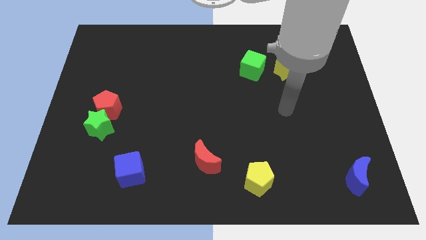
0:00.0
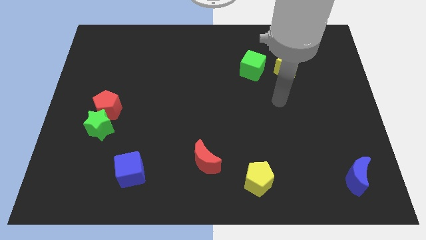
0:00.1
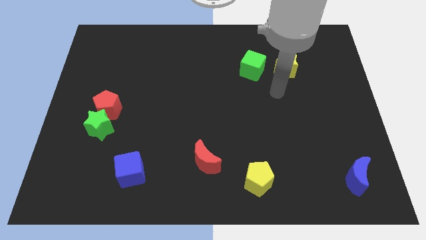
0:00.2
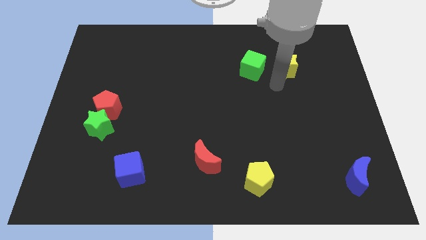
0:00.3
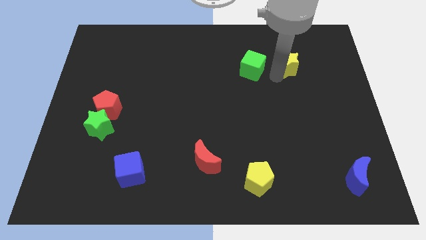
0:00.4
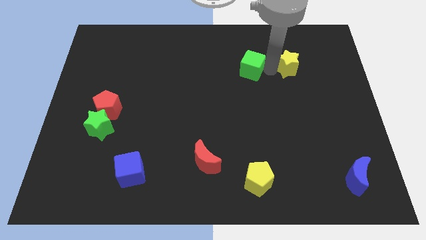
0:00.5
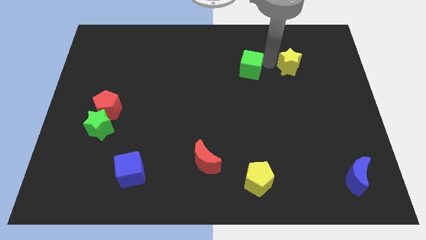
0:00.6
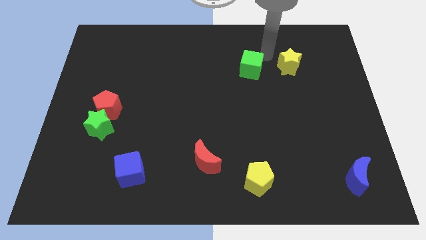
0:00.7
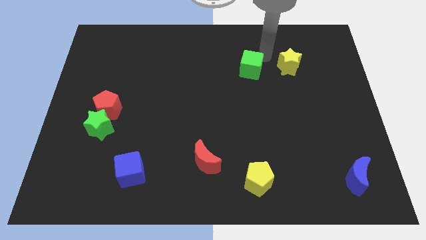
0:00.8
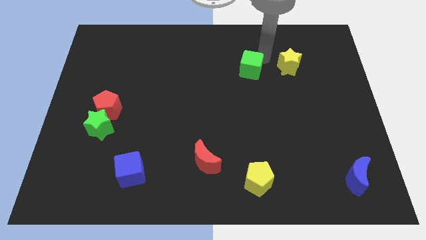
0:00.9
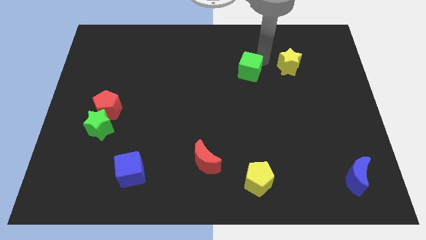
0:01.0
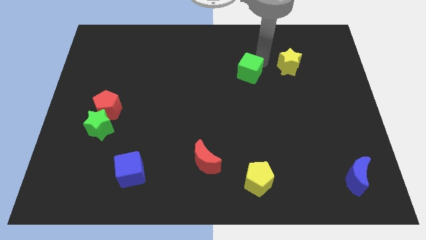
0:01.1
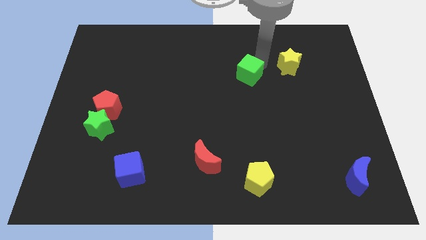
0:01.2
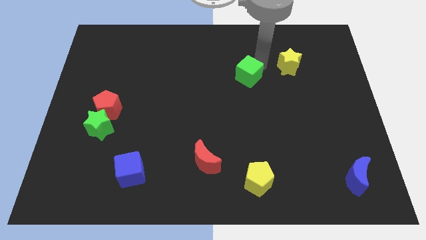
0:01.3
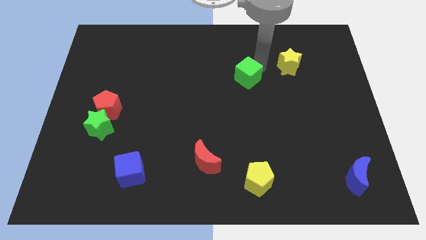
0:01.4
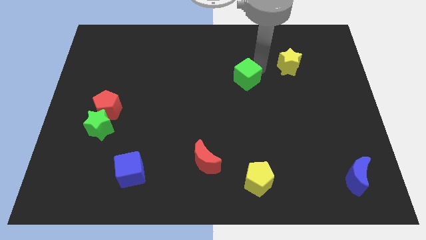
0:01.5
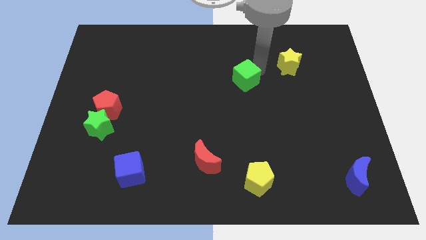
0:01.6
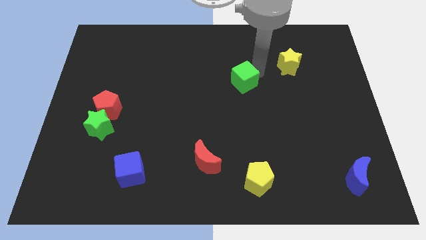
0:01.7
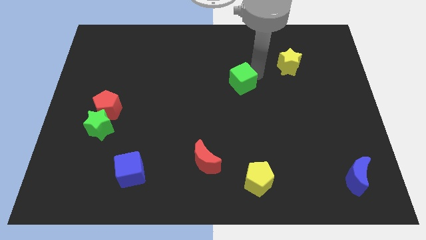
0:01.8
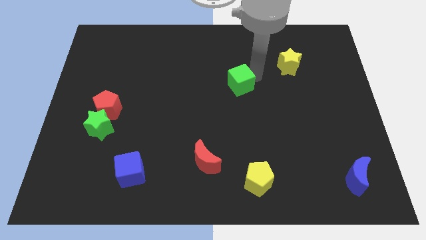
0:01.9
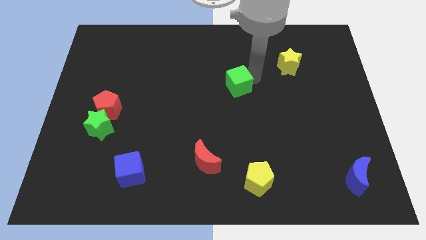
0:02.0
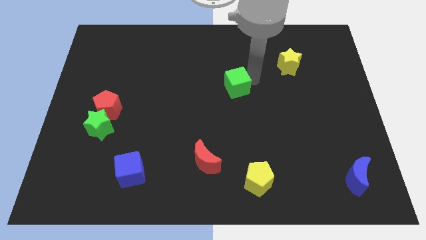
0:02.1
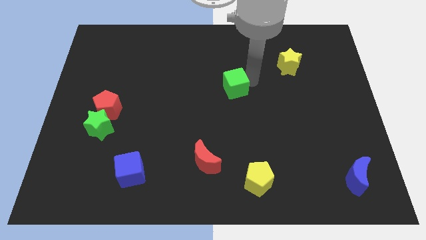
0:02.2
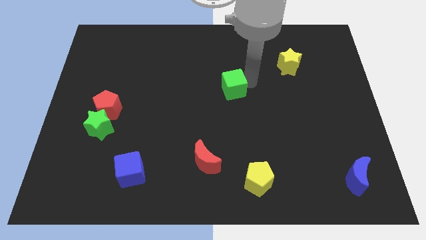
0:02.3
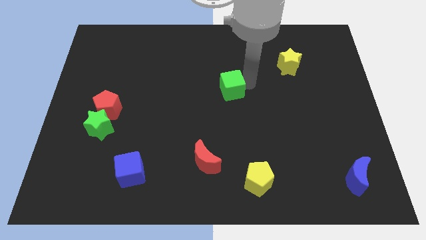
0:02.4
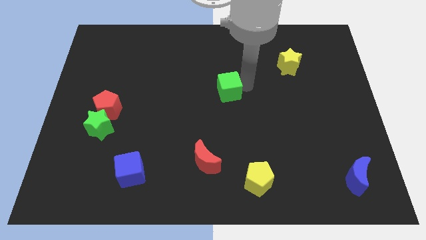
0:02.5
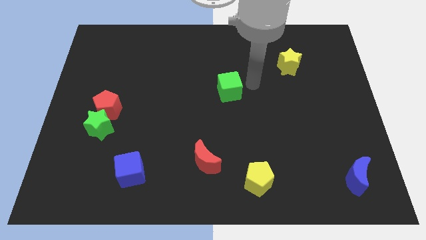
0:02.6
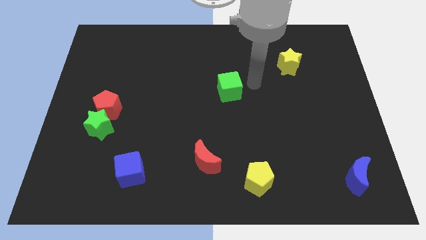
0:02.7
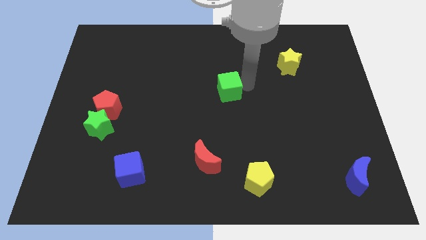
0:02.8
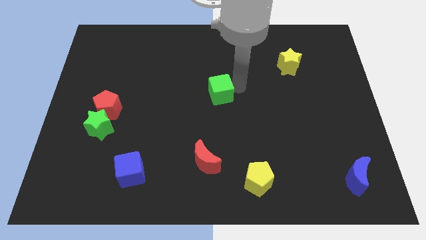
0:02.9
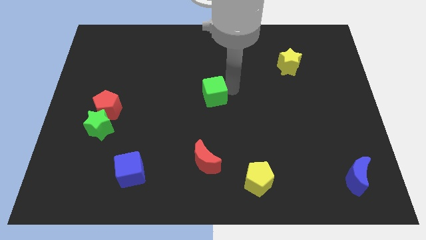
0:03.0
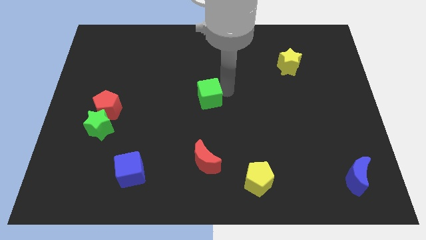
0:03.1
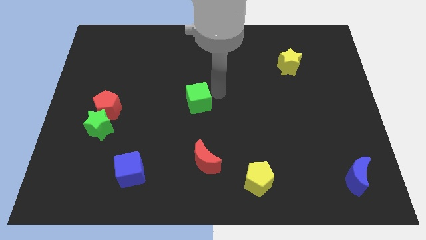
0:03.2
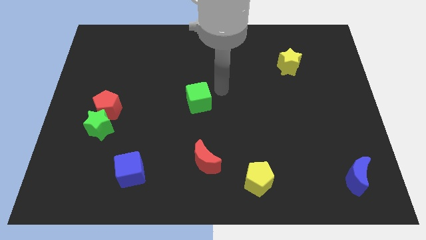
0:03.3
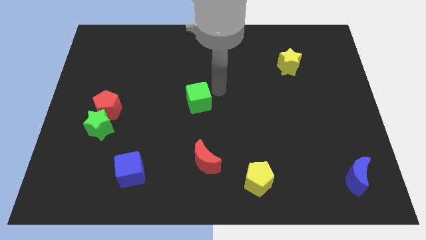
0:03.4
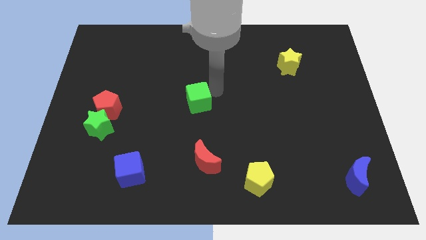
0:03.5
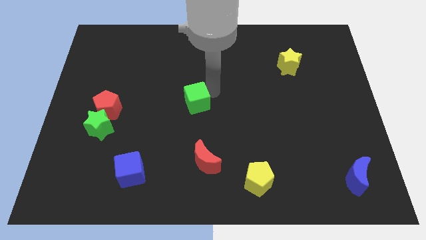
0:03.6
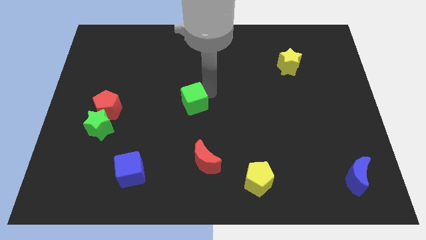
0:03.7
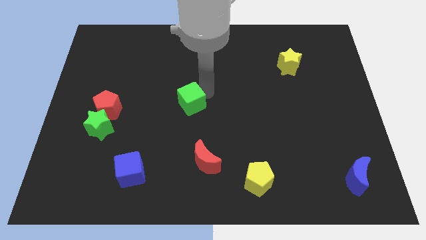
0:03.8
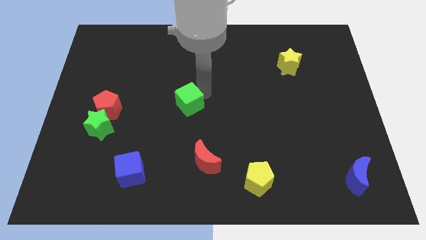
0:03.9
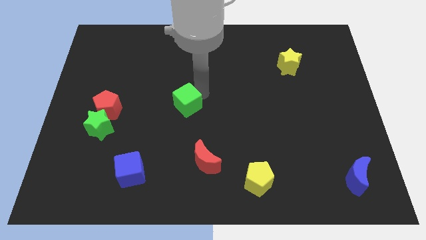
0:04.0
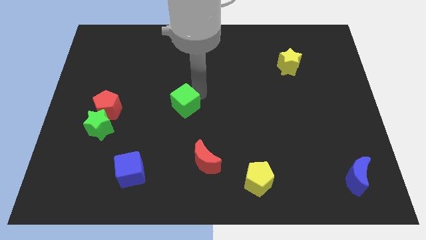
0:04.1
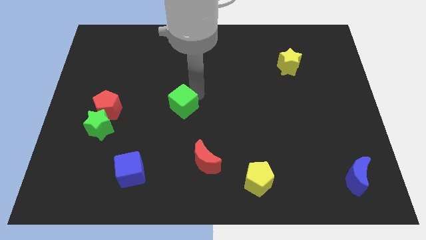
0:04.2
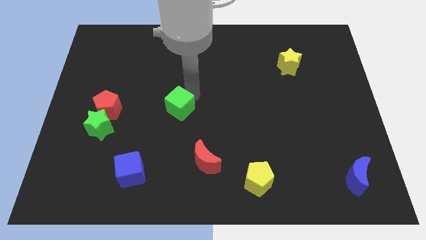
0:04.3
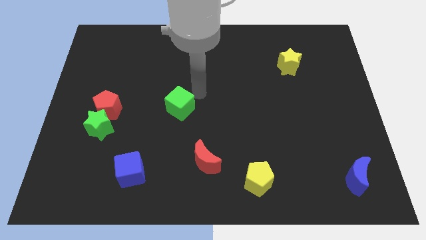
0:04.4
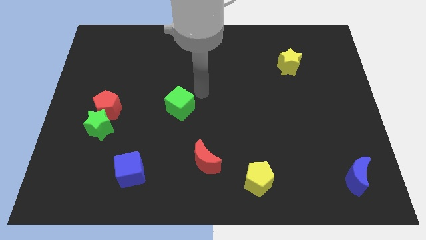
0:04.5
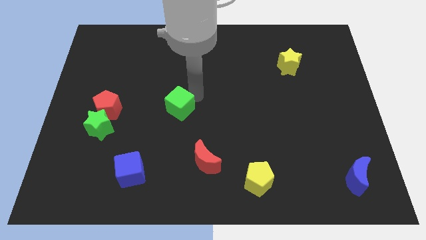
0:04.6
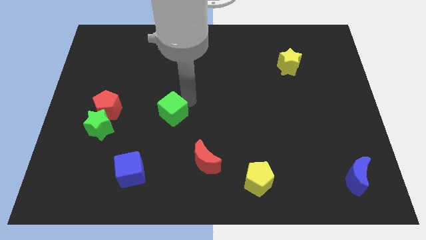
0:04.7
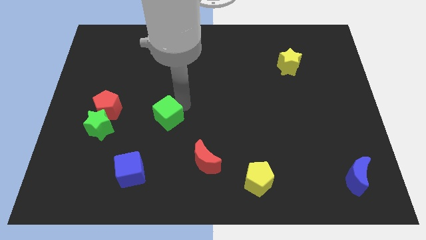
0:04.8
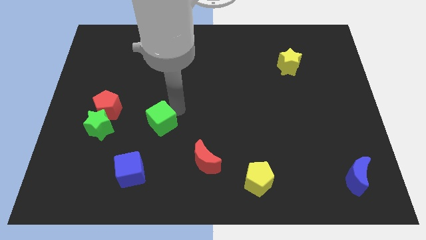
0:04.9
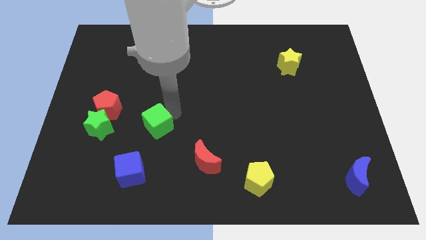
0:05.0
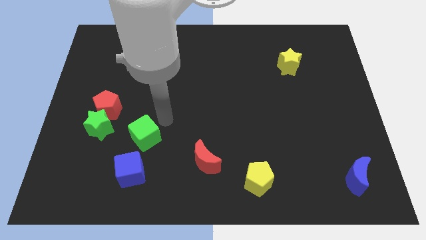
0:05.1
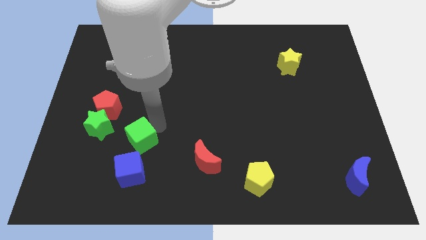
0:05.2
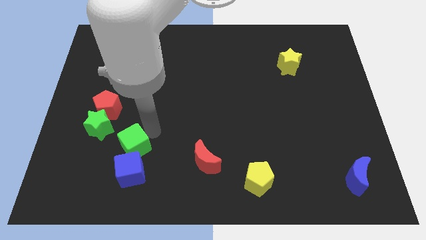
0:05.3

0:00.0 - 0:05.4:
push the green cube diagonally up and to the left of the blue cube

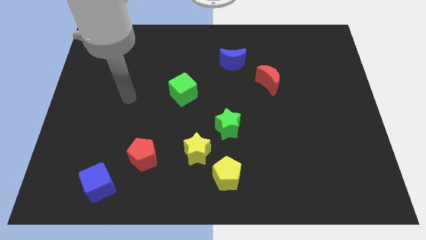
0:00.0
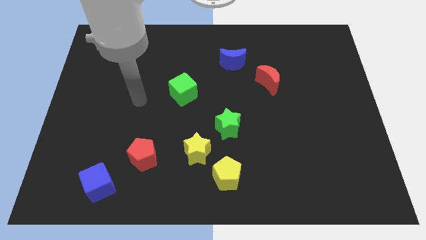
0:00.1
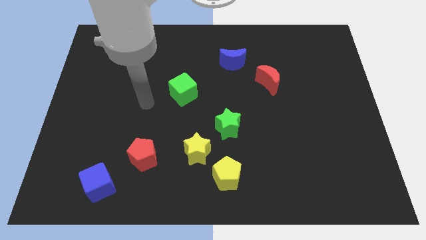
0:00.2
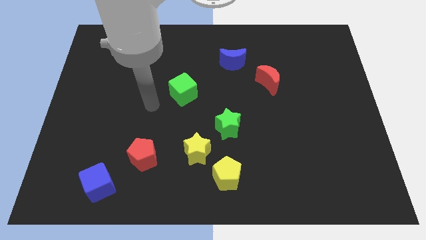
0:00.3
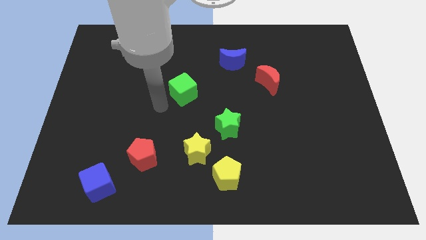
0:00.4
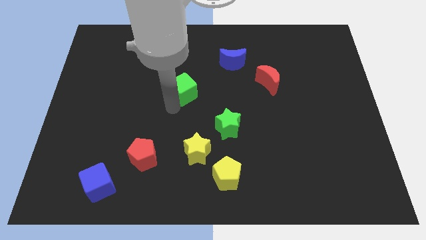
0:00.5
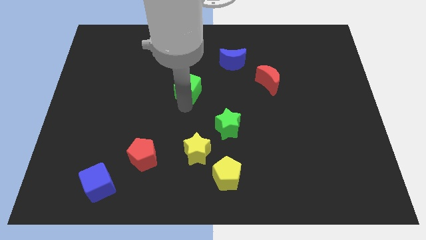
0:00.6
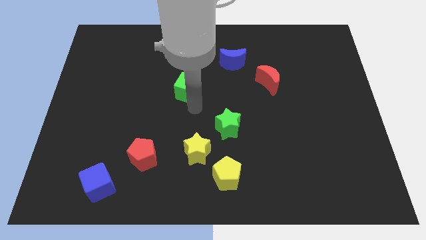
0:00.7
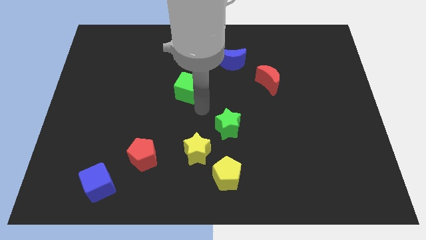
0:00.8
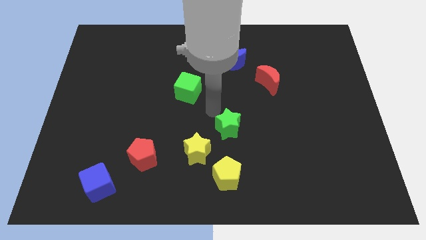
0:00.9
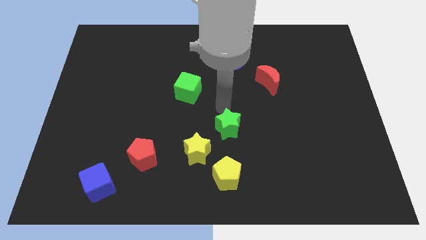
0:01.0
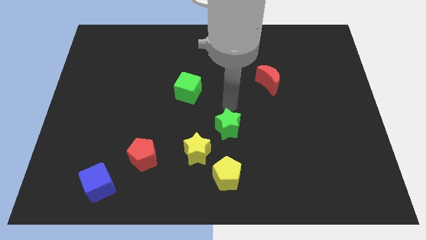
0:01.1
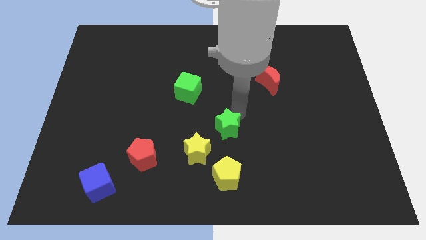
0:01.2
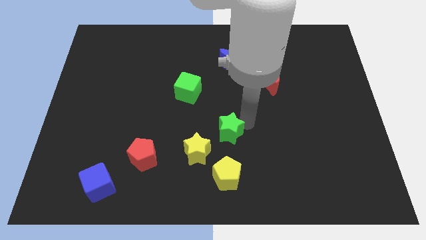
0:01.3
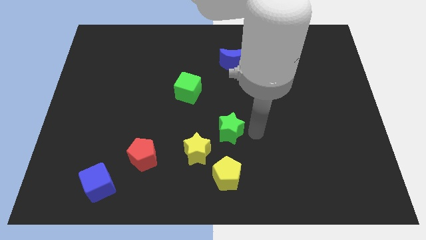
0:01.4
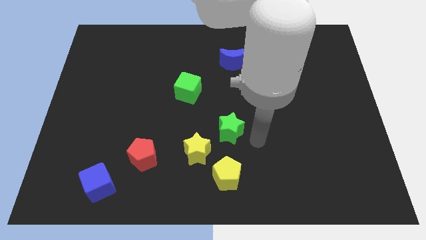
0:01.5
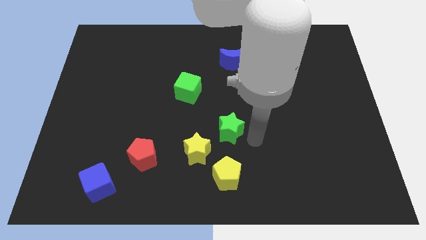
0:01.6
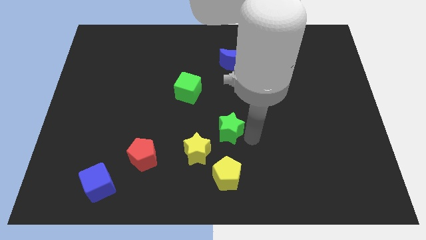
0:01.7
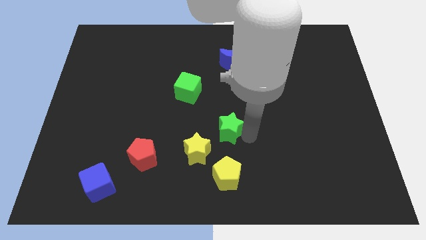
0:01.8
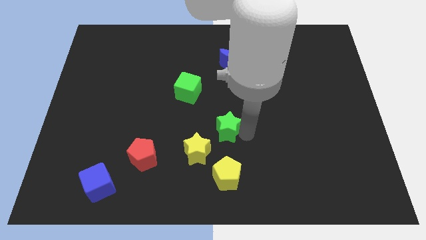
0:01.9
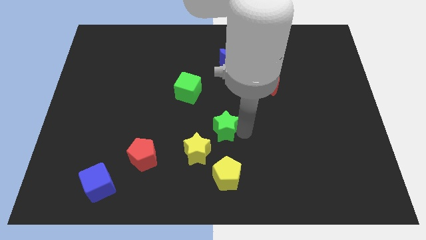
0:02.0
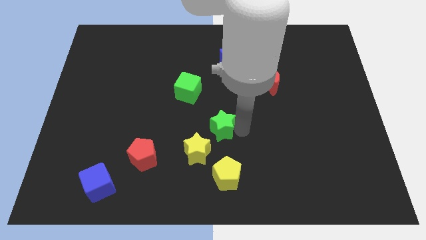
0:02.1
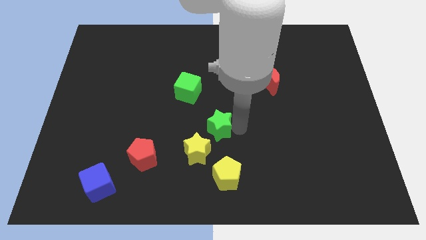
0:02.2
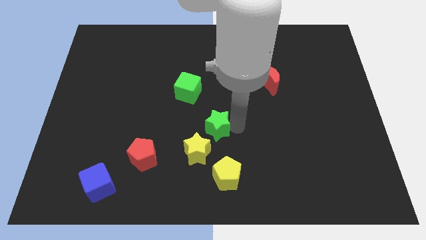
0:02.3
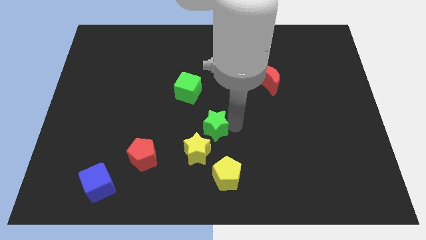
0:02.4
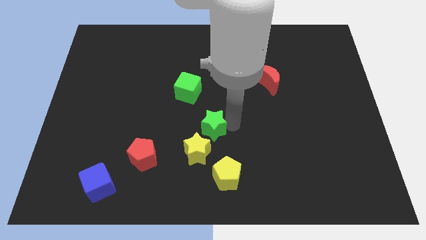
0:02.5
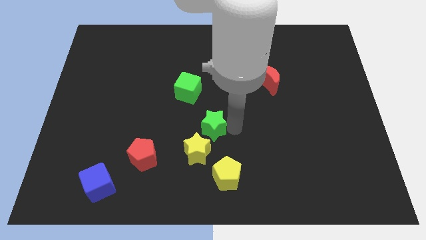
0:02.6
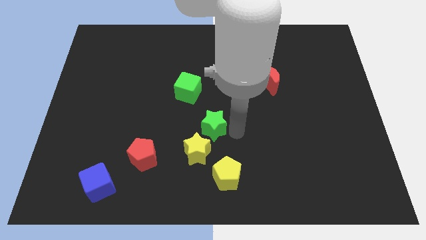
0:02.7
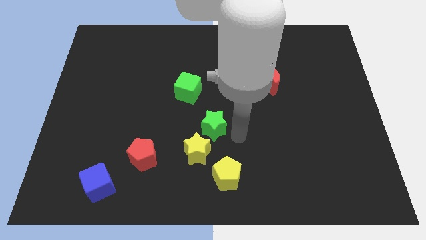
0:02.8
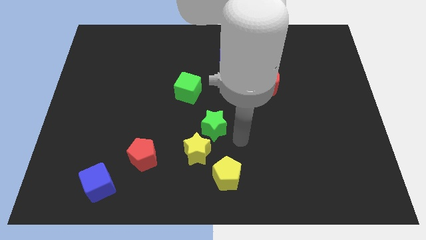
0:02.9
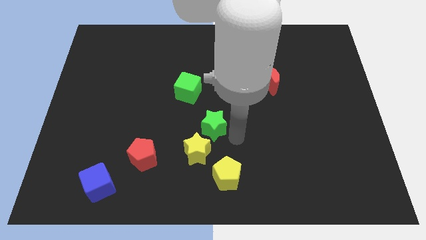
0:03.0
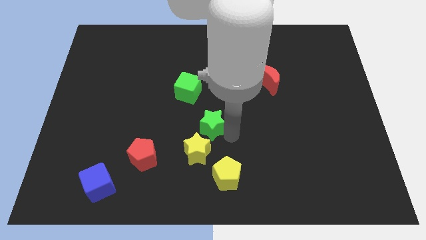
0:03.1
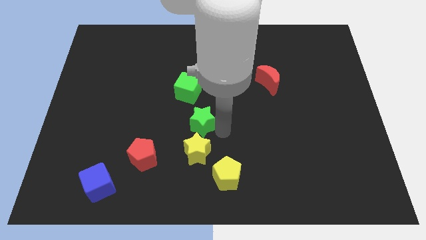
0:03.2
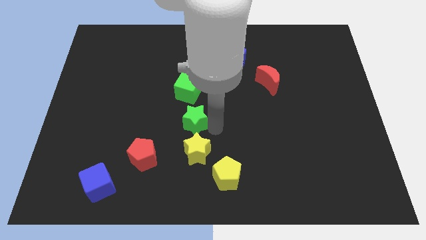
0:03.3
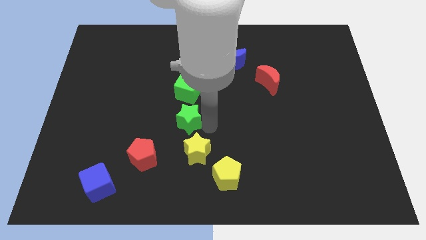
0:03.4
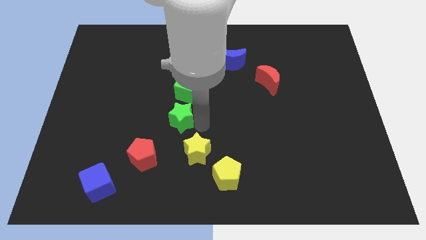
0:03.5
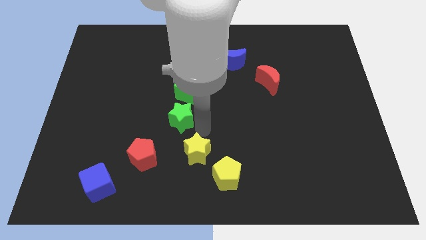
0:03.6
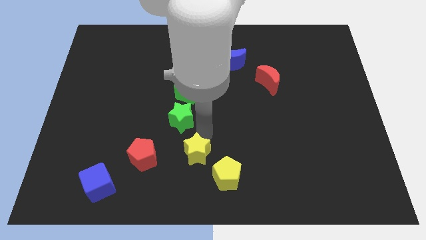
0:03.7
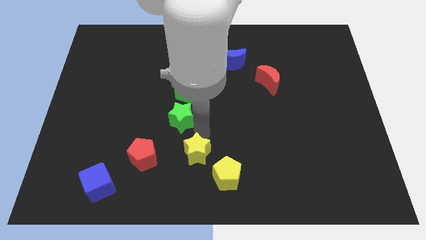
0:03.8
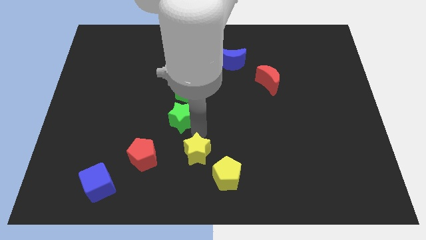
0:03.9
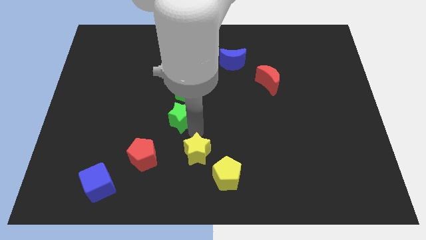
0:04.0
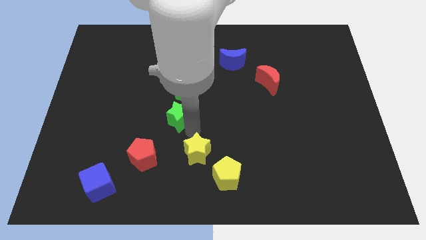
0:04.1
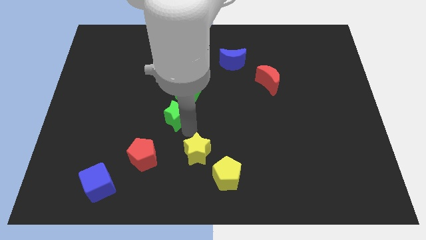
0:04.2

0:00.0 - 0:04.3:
slide the green star to the bottom left side of the green cube
